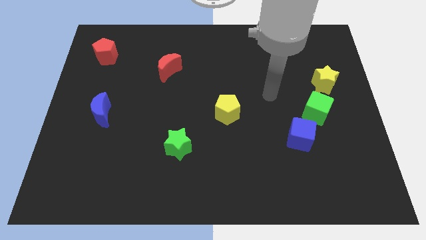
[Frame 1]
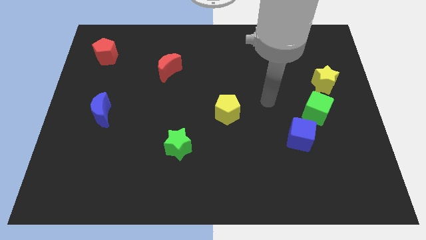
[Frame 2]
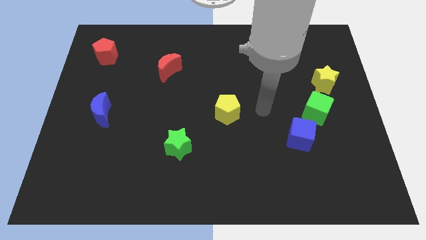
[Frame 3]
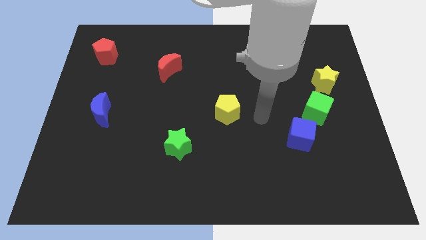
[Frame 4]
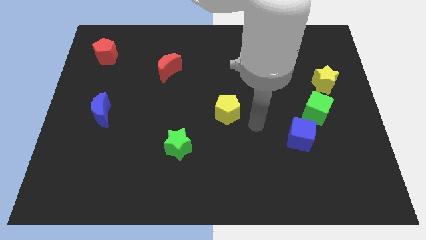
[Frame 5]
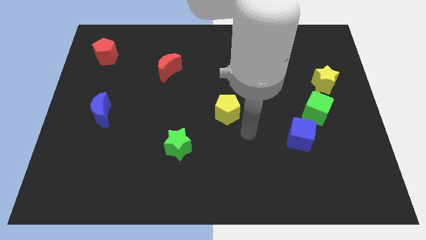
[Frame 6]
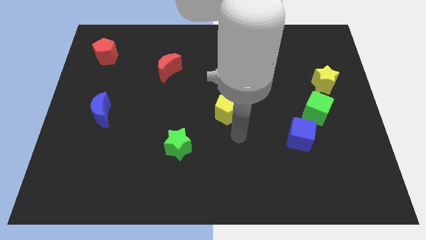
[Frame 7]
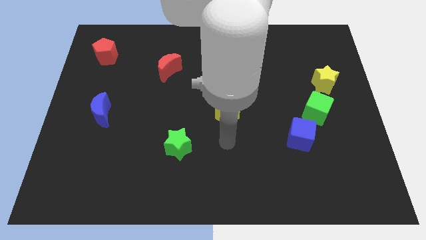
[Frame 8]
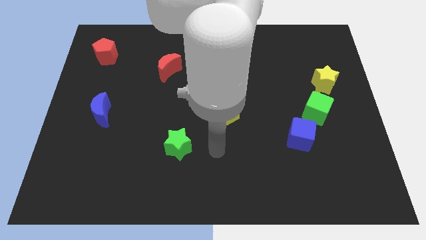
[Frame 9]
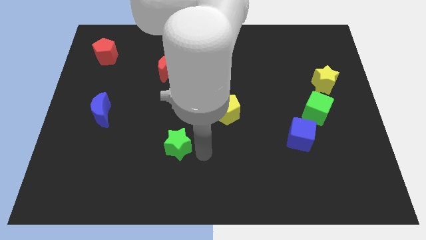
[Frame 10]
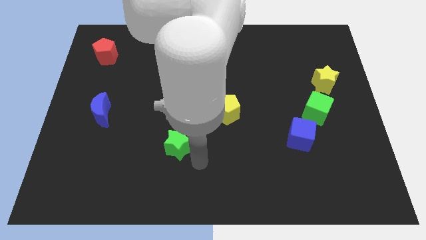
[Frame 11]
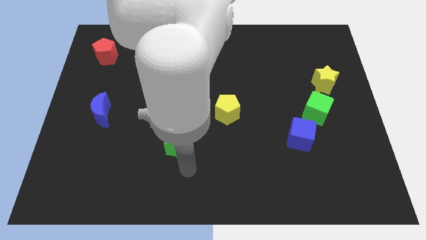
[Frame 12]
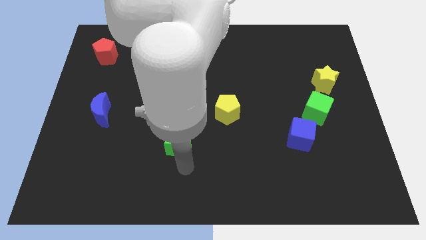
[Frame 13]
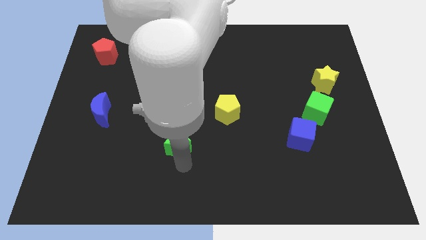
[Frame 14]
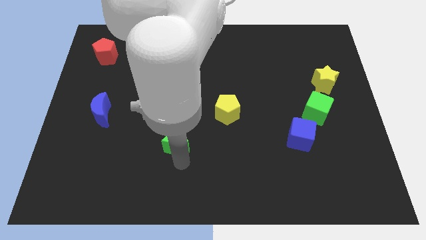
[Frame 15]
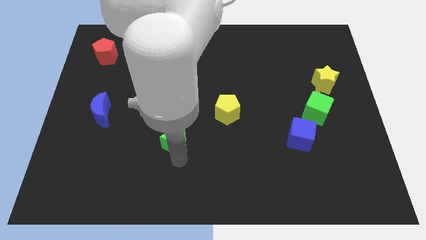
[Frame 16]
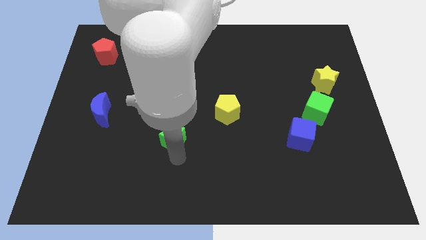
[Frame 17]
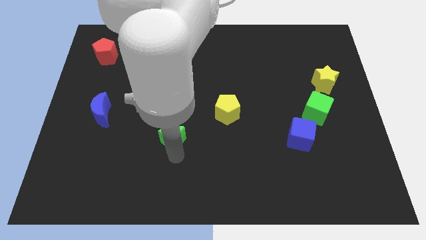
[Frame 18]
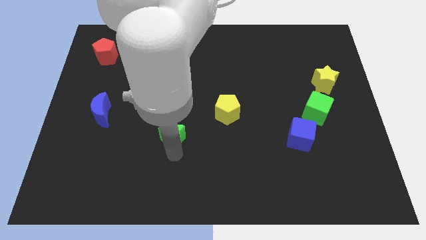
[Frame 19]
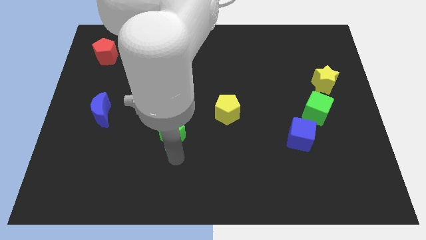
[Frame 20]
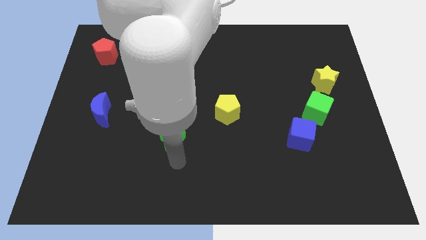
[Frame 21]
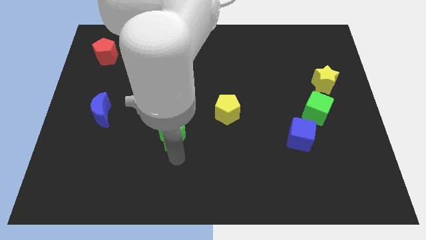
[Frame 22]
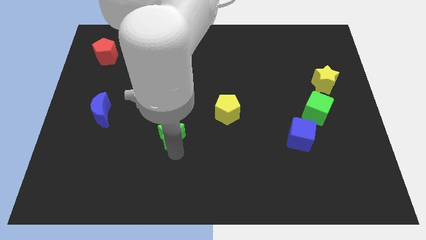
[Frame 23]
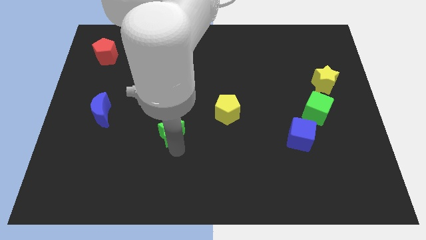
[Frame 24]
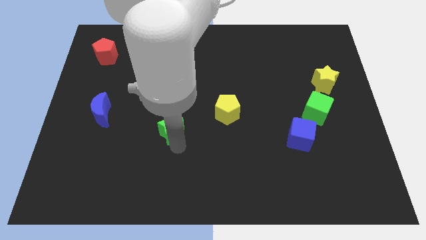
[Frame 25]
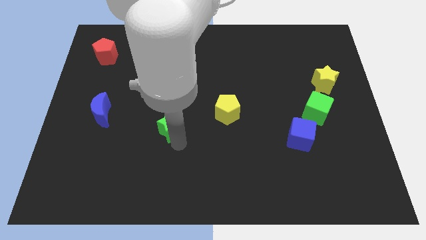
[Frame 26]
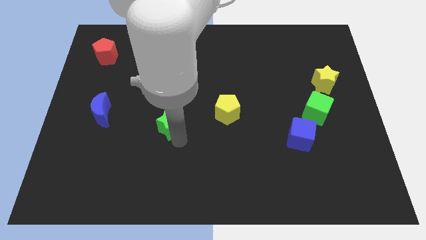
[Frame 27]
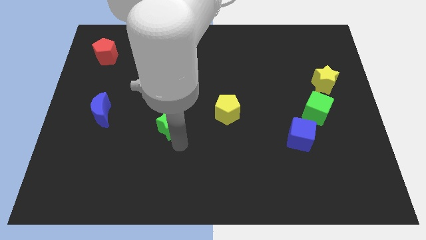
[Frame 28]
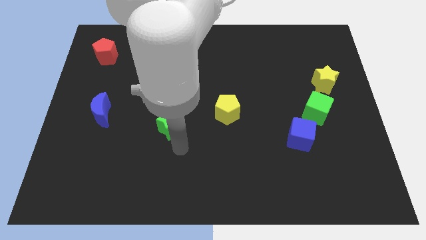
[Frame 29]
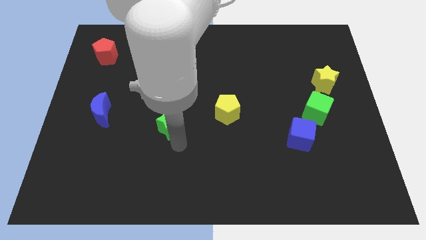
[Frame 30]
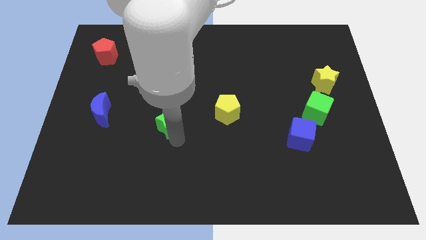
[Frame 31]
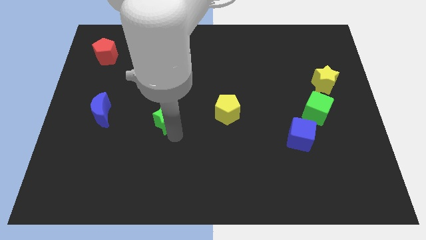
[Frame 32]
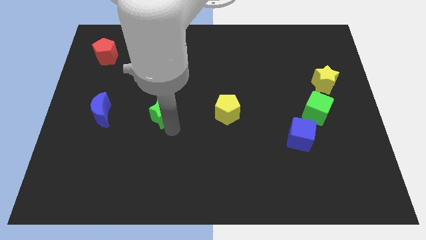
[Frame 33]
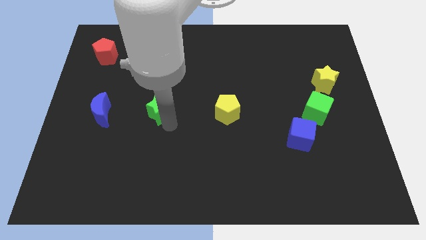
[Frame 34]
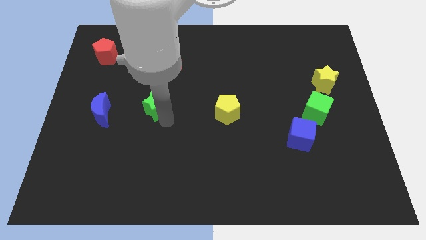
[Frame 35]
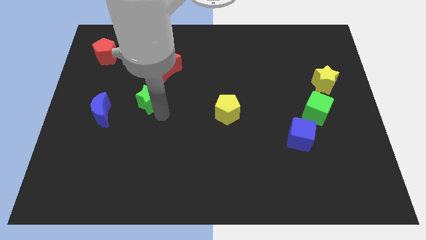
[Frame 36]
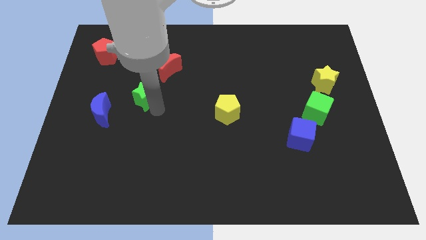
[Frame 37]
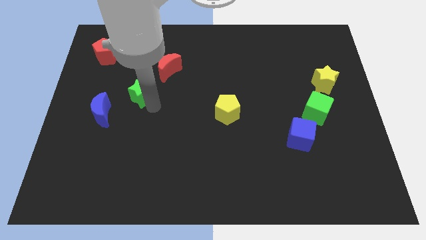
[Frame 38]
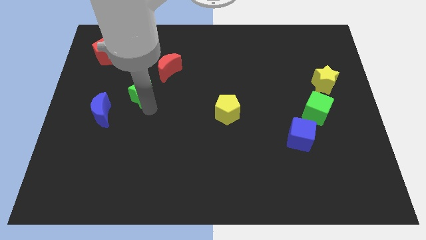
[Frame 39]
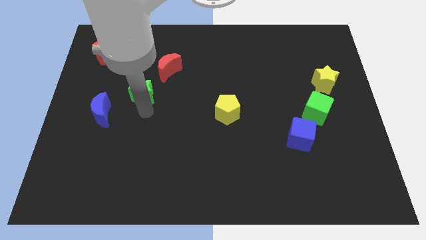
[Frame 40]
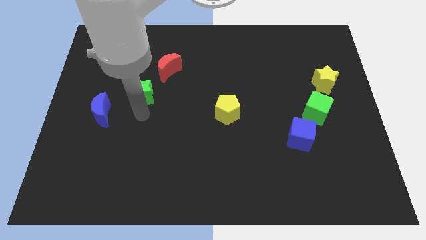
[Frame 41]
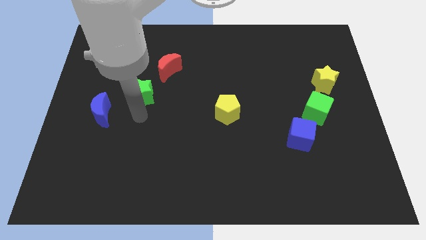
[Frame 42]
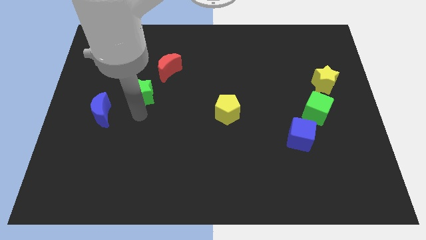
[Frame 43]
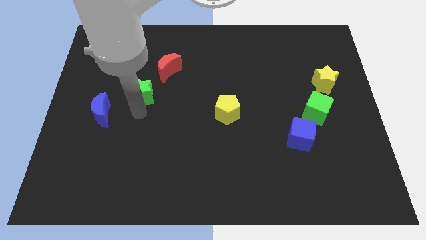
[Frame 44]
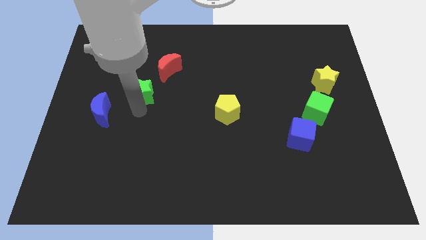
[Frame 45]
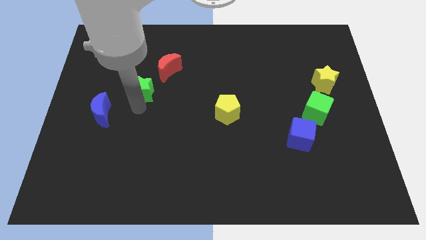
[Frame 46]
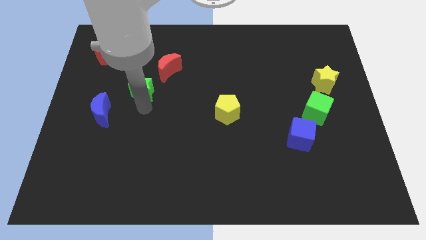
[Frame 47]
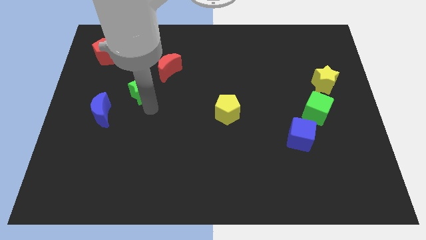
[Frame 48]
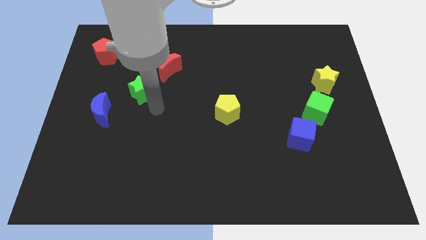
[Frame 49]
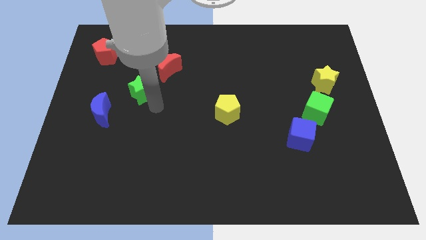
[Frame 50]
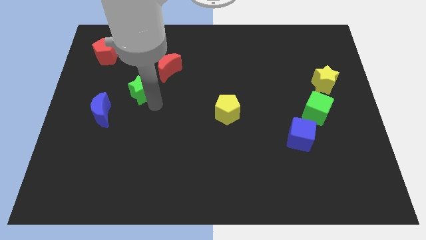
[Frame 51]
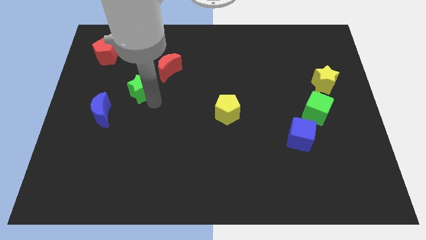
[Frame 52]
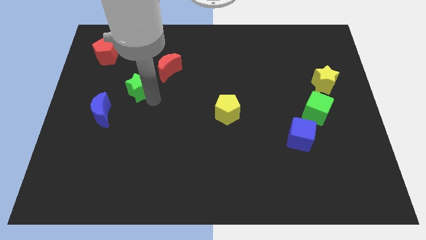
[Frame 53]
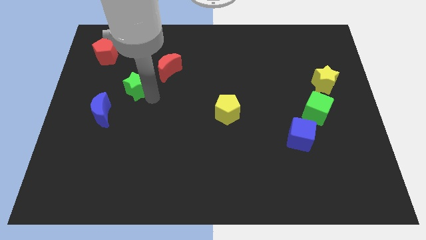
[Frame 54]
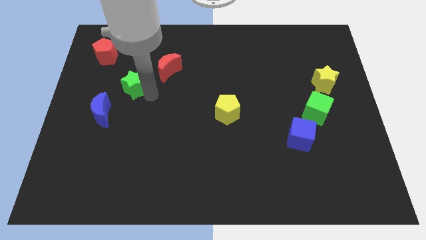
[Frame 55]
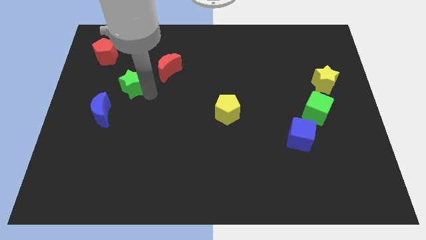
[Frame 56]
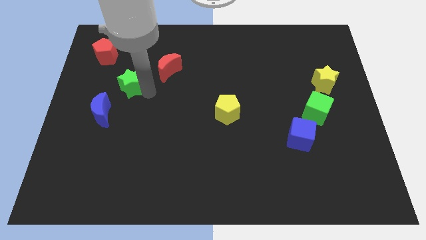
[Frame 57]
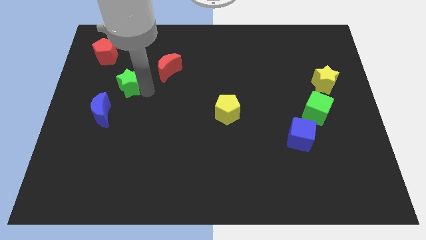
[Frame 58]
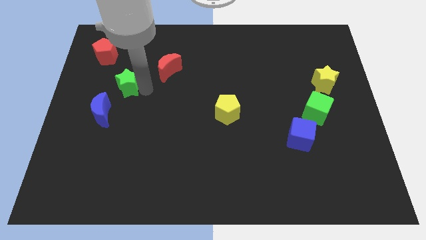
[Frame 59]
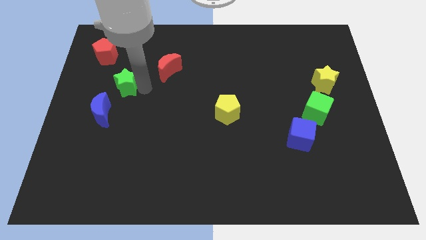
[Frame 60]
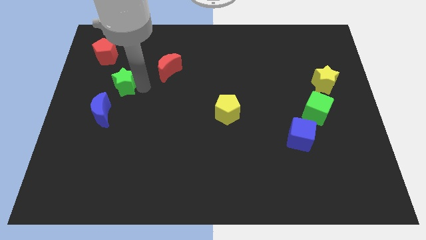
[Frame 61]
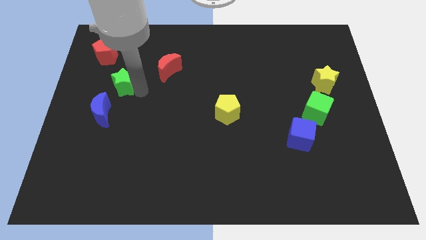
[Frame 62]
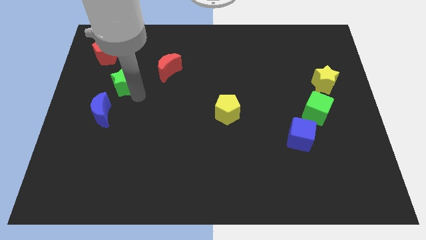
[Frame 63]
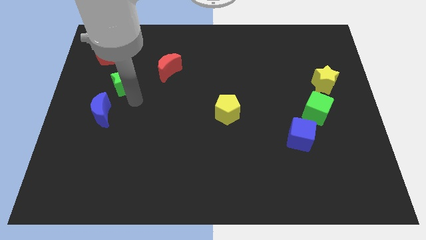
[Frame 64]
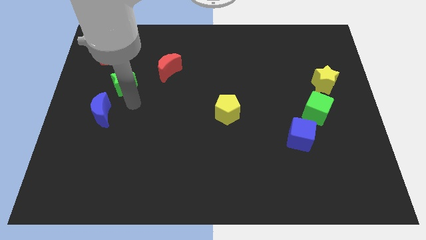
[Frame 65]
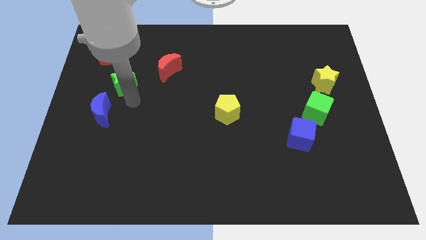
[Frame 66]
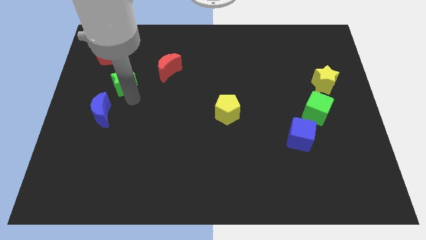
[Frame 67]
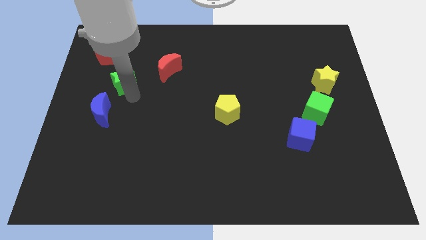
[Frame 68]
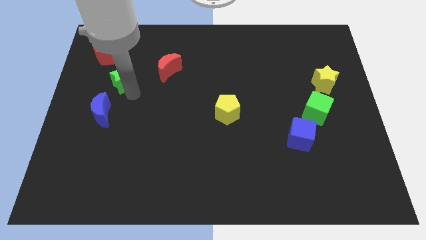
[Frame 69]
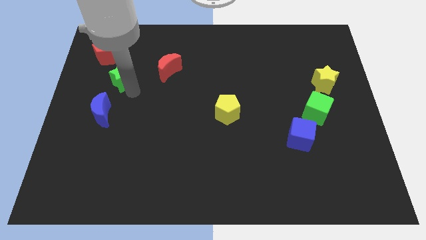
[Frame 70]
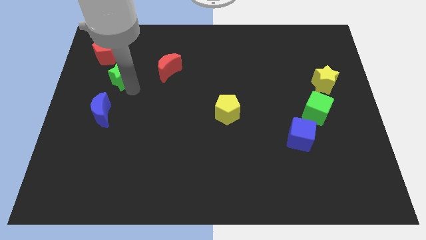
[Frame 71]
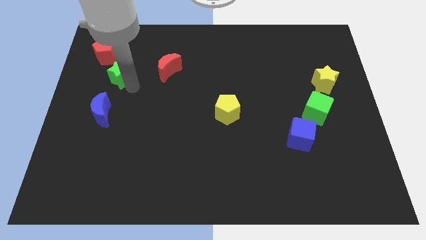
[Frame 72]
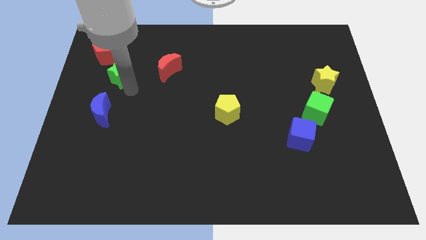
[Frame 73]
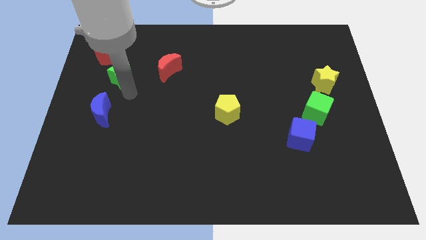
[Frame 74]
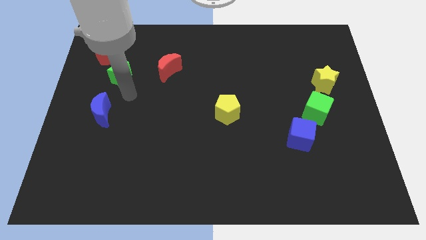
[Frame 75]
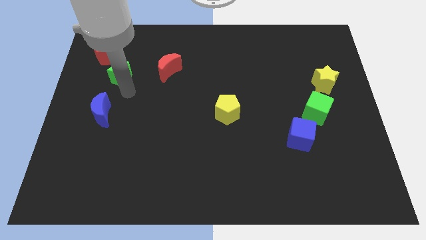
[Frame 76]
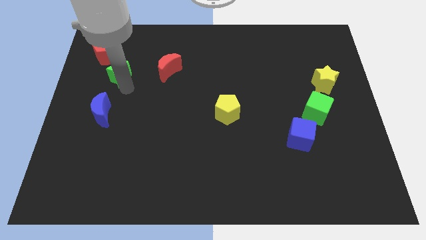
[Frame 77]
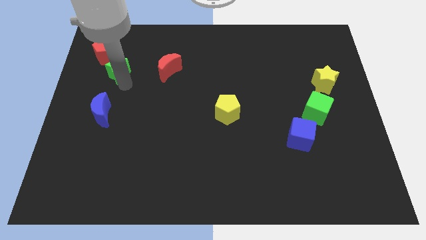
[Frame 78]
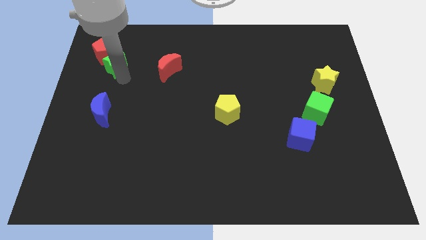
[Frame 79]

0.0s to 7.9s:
move the green star towards the red pentagon

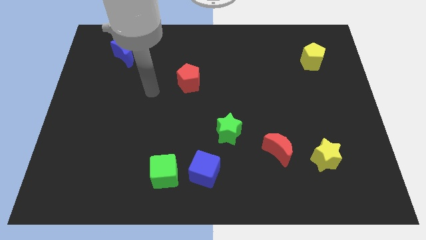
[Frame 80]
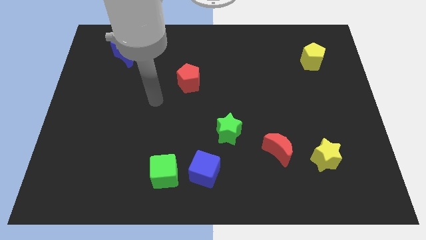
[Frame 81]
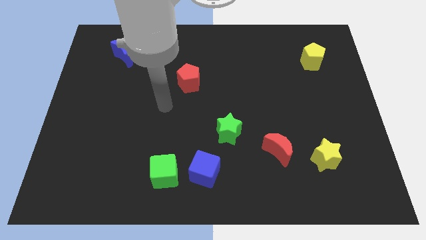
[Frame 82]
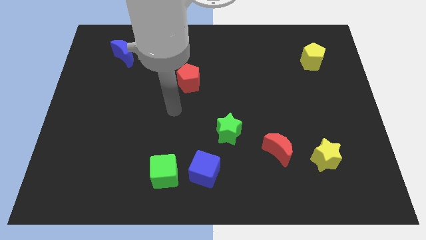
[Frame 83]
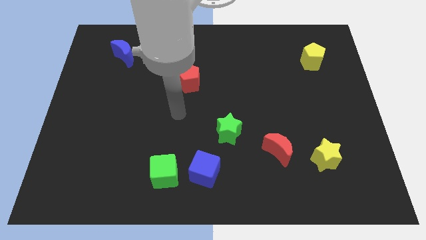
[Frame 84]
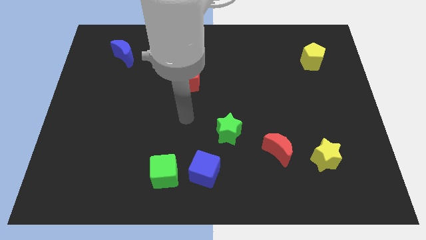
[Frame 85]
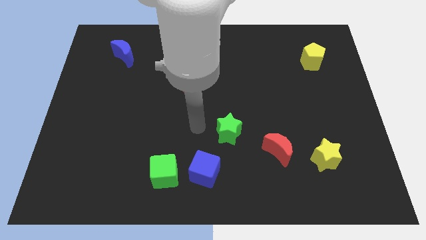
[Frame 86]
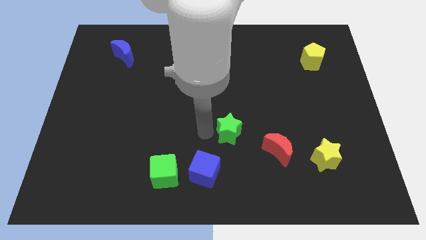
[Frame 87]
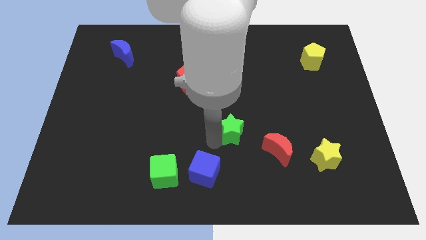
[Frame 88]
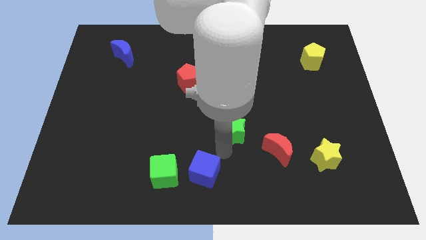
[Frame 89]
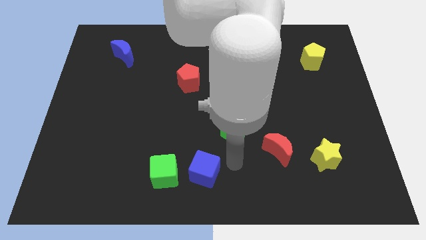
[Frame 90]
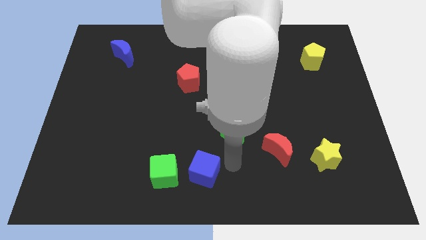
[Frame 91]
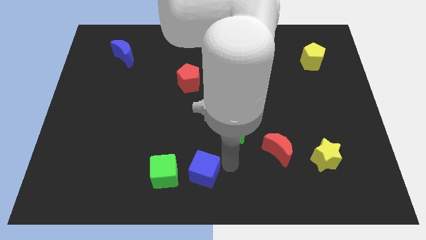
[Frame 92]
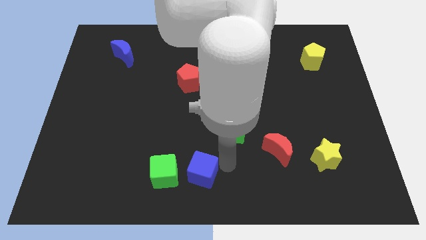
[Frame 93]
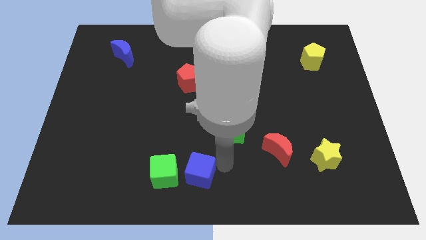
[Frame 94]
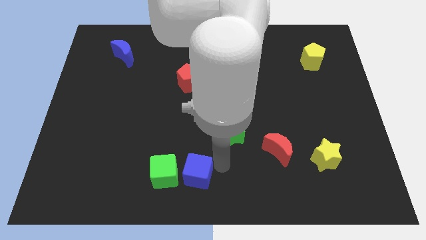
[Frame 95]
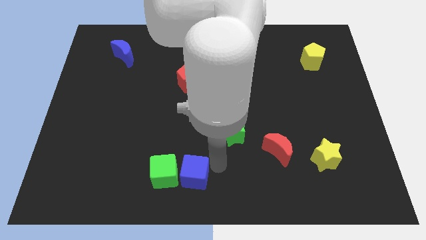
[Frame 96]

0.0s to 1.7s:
slide the blue cube next to the green cube
